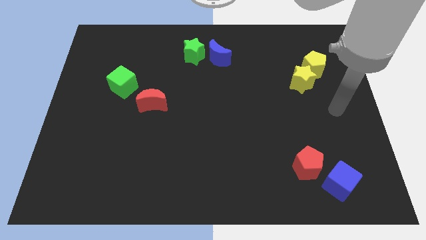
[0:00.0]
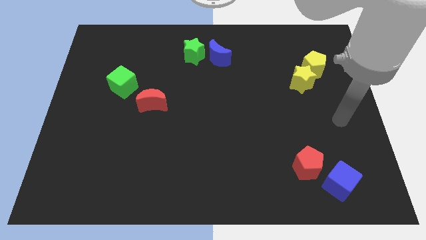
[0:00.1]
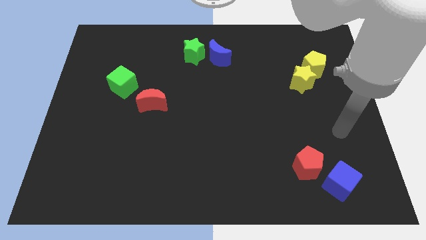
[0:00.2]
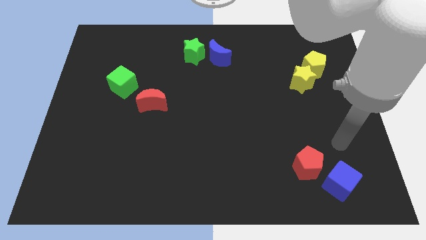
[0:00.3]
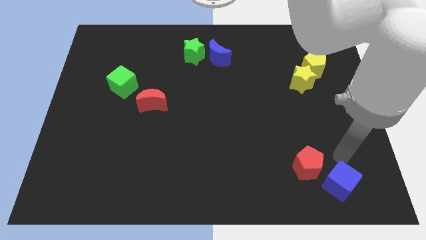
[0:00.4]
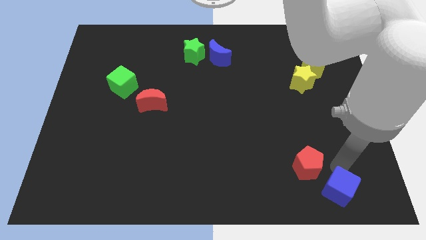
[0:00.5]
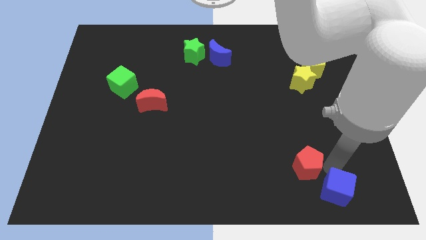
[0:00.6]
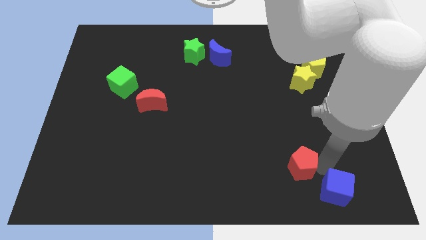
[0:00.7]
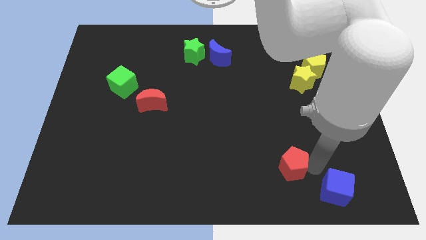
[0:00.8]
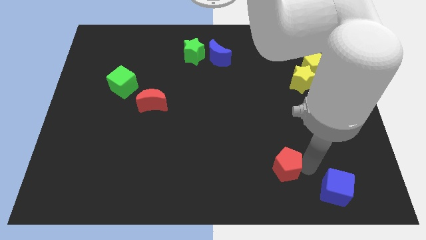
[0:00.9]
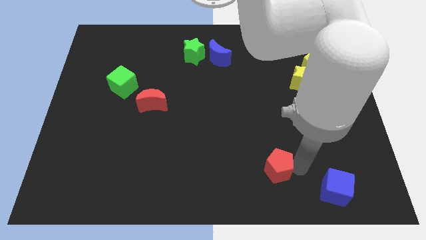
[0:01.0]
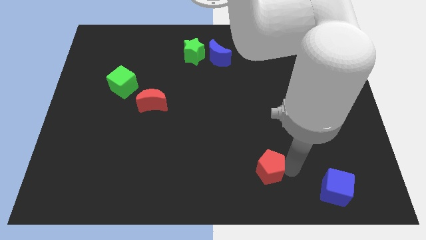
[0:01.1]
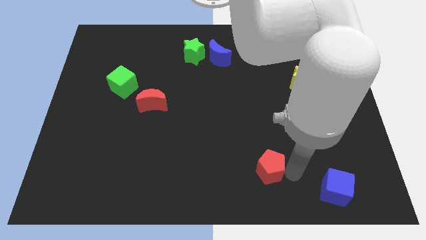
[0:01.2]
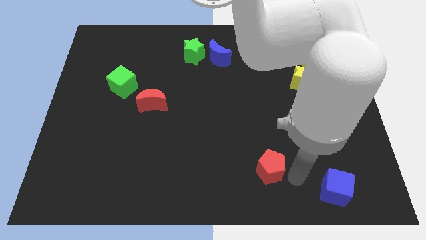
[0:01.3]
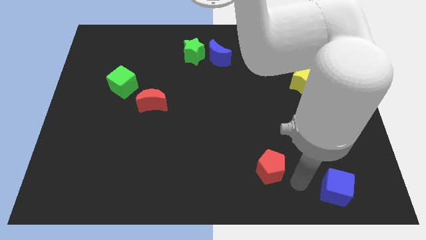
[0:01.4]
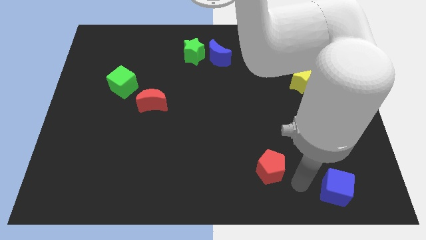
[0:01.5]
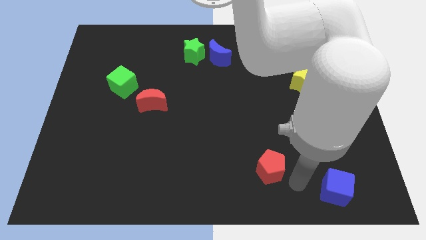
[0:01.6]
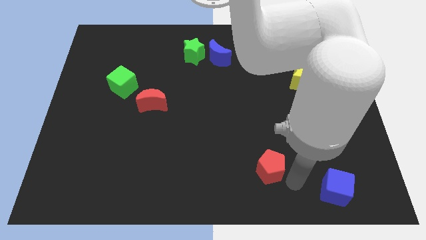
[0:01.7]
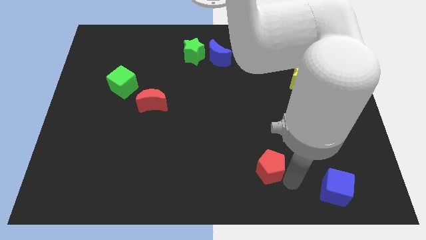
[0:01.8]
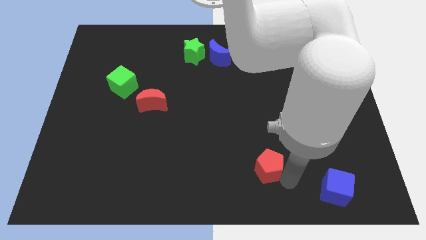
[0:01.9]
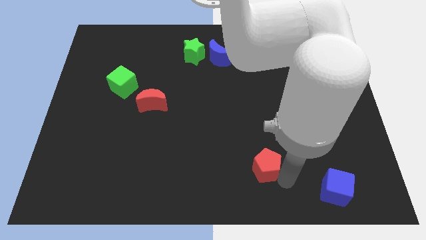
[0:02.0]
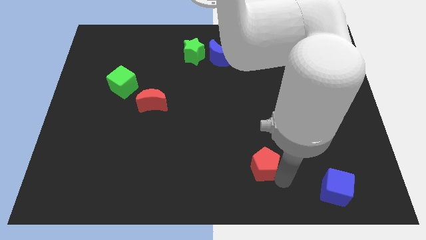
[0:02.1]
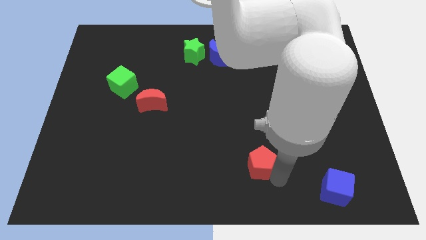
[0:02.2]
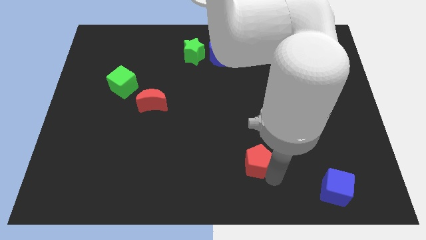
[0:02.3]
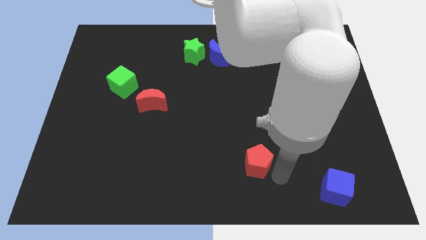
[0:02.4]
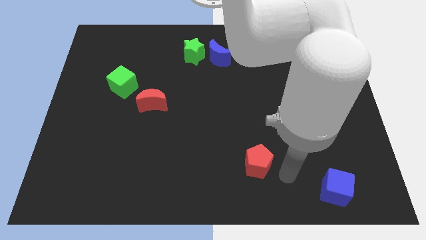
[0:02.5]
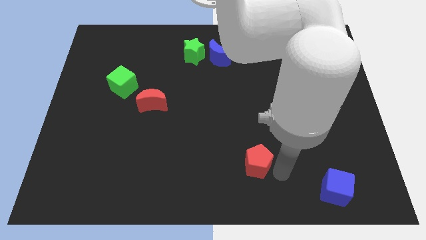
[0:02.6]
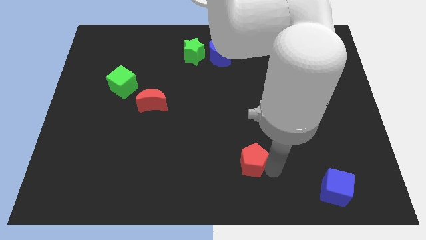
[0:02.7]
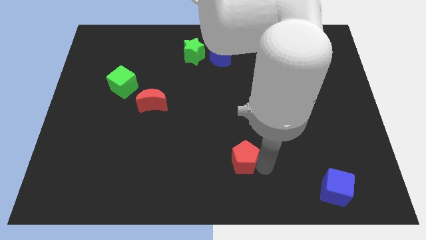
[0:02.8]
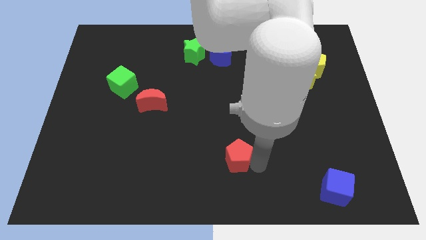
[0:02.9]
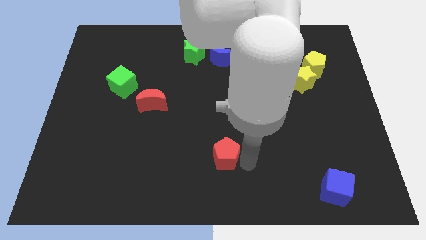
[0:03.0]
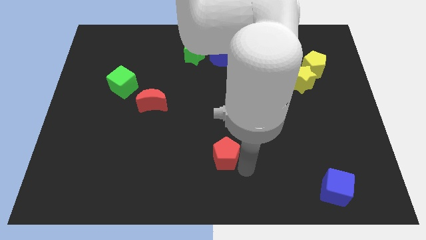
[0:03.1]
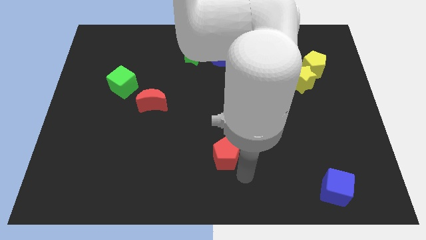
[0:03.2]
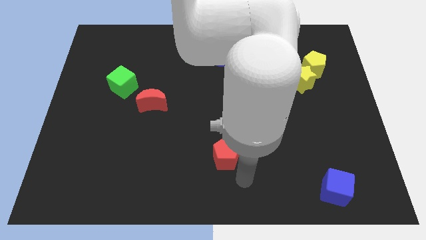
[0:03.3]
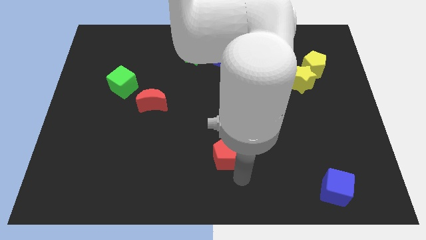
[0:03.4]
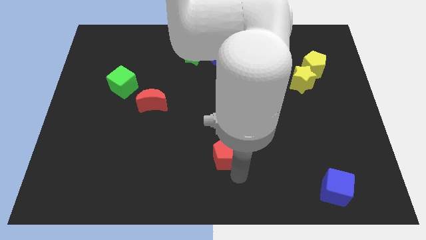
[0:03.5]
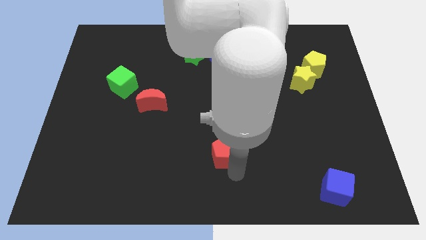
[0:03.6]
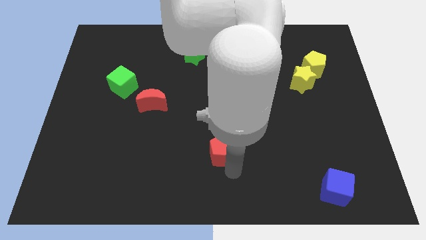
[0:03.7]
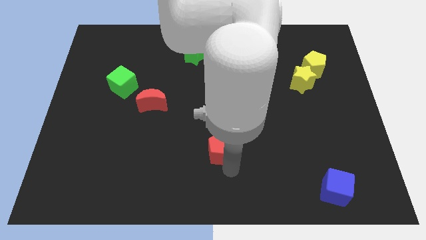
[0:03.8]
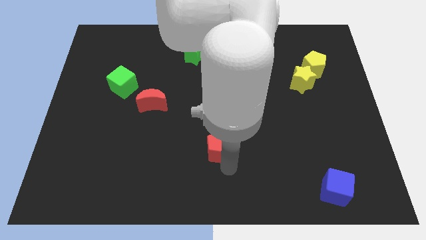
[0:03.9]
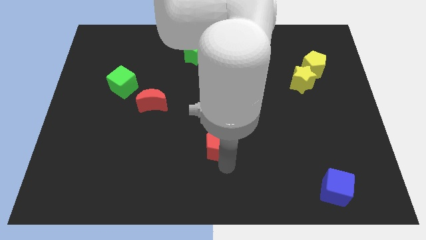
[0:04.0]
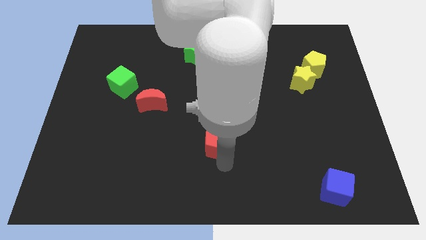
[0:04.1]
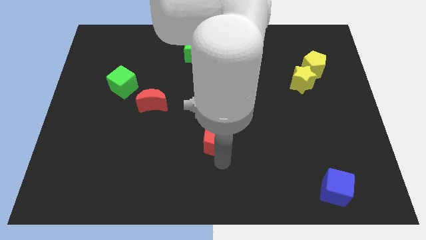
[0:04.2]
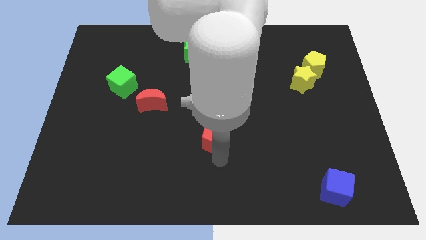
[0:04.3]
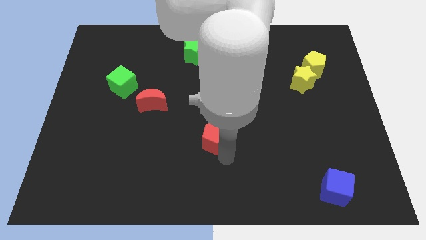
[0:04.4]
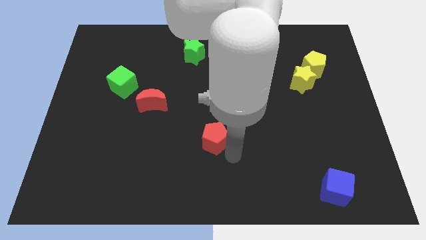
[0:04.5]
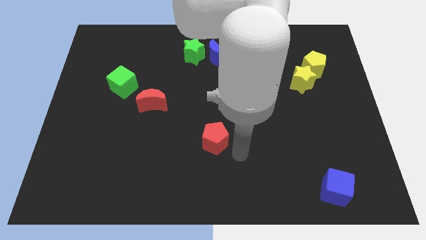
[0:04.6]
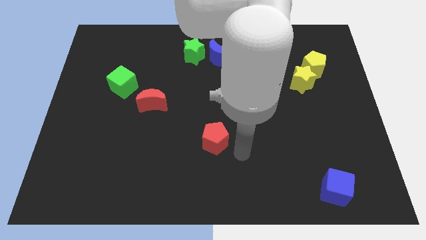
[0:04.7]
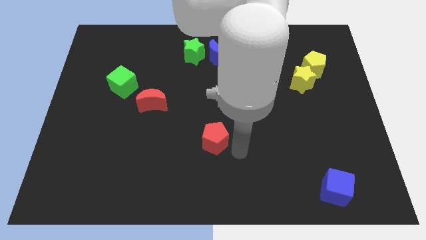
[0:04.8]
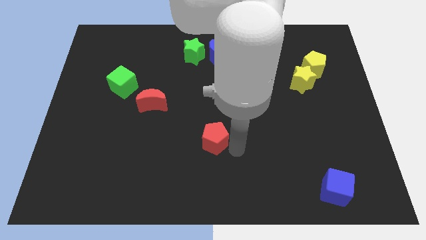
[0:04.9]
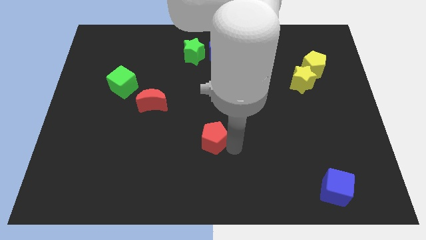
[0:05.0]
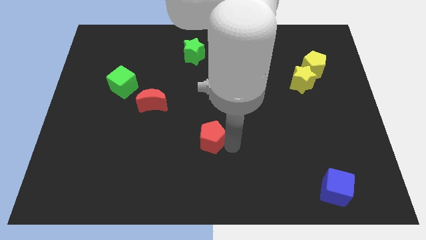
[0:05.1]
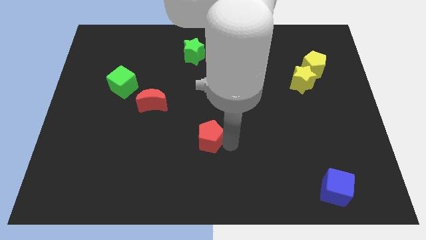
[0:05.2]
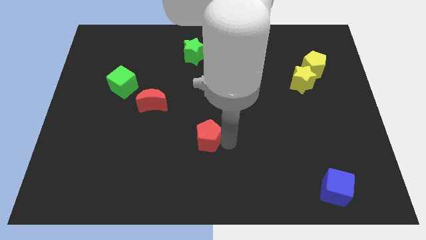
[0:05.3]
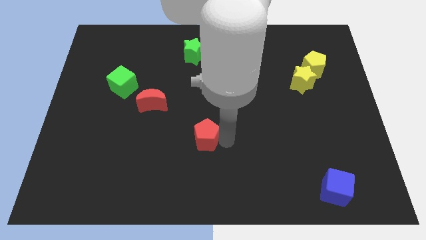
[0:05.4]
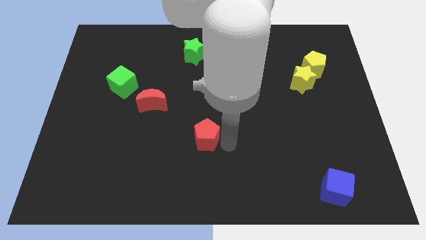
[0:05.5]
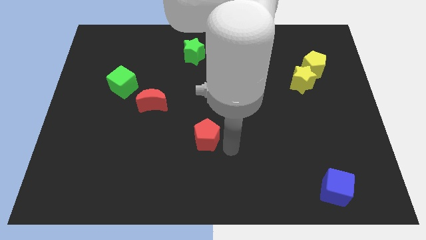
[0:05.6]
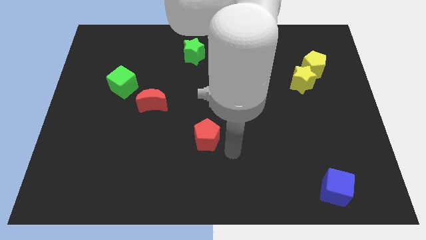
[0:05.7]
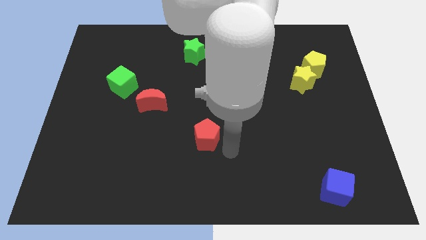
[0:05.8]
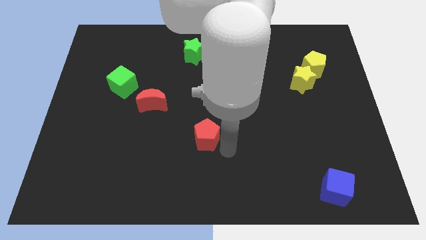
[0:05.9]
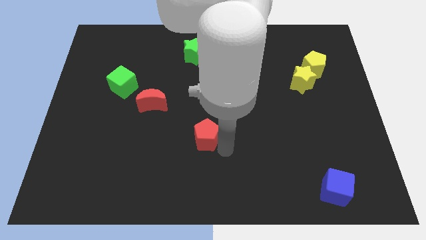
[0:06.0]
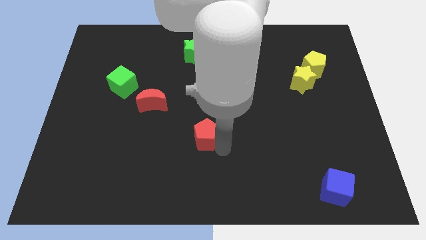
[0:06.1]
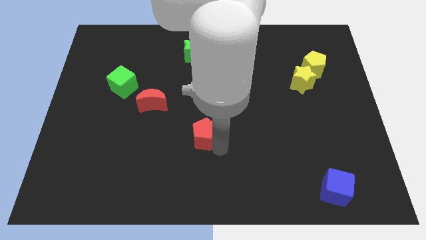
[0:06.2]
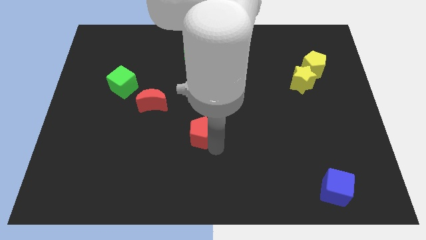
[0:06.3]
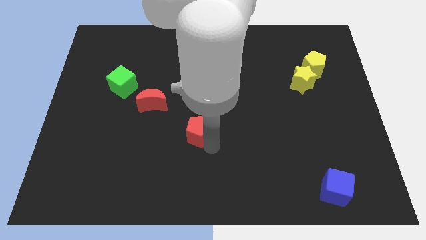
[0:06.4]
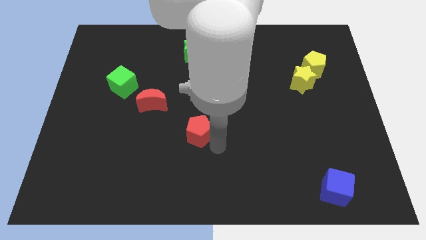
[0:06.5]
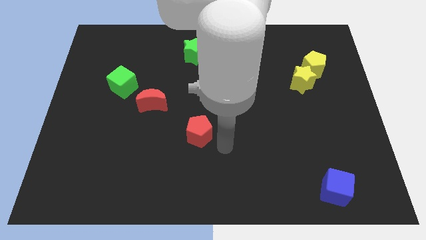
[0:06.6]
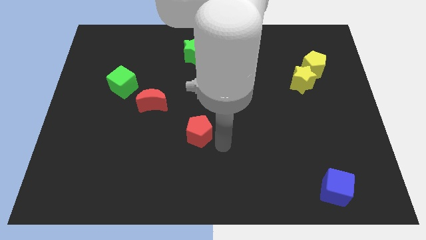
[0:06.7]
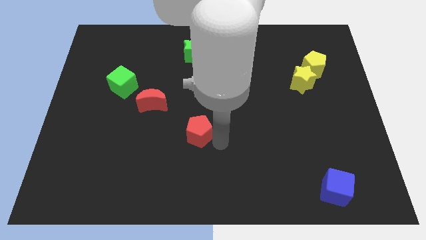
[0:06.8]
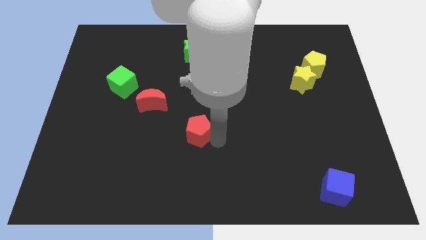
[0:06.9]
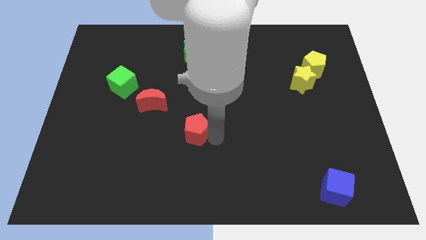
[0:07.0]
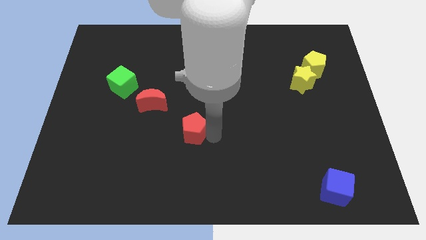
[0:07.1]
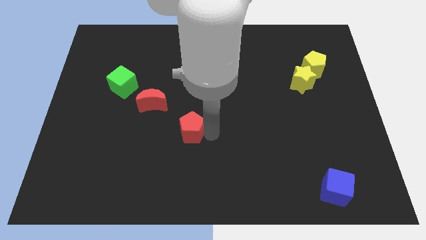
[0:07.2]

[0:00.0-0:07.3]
slide the red pentagon to the bottom right of the red moon

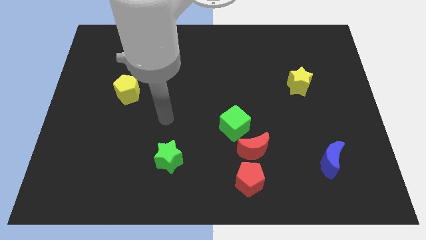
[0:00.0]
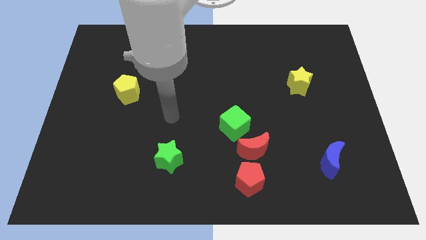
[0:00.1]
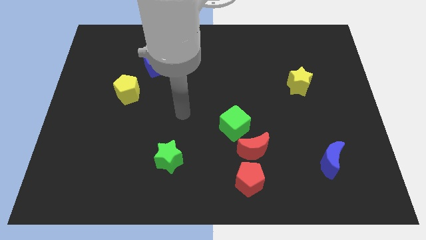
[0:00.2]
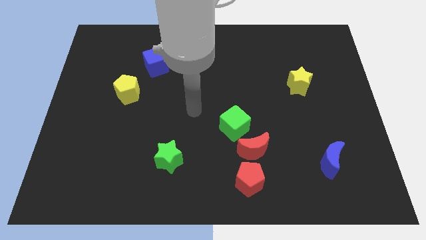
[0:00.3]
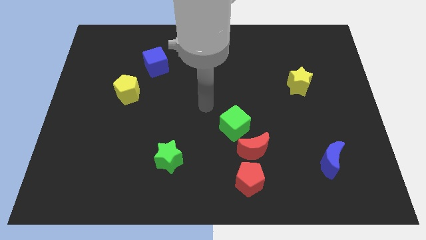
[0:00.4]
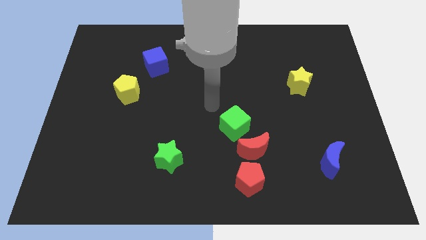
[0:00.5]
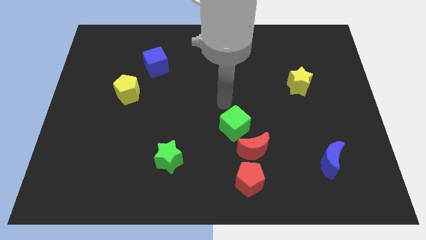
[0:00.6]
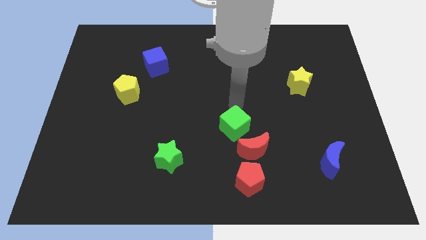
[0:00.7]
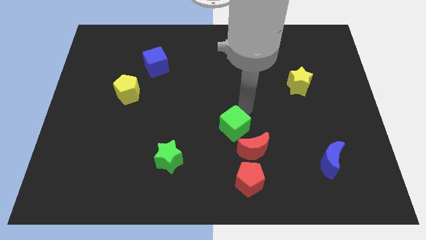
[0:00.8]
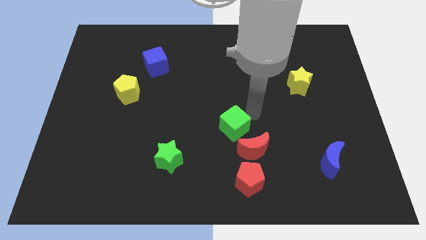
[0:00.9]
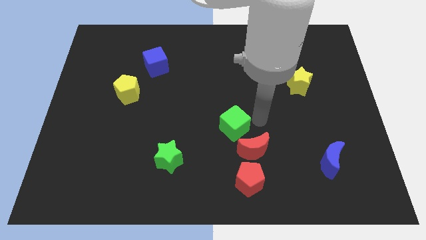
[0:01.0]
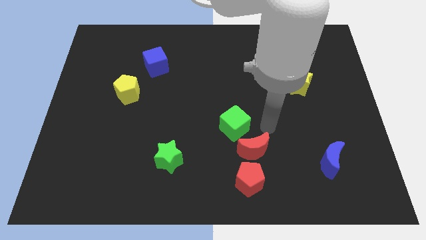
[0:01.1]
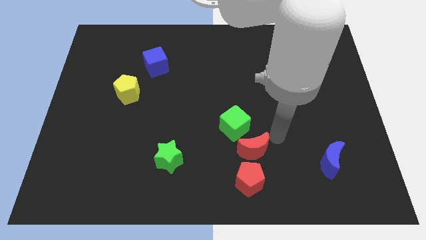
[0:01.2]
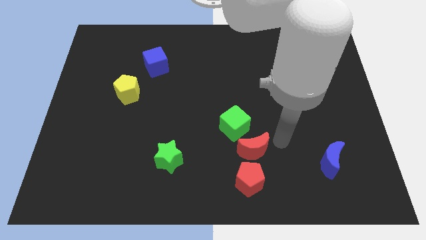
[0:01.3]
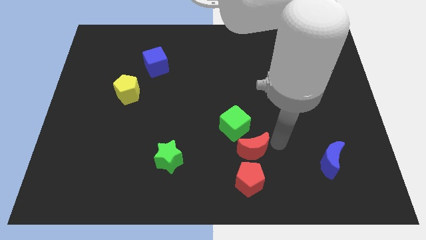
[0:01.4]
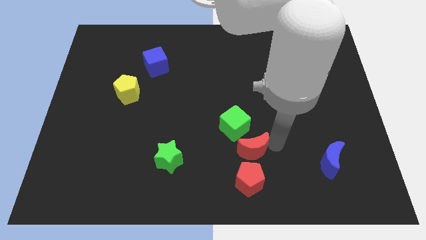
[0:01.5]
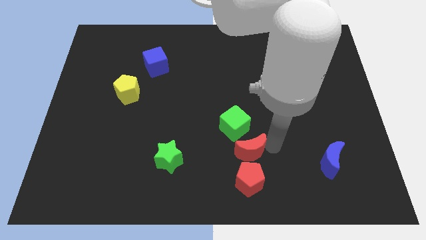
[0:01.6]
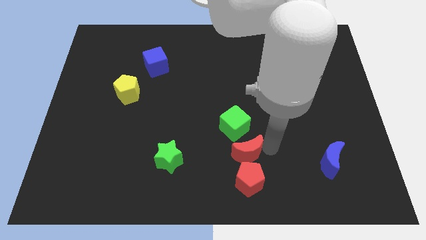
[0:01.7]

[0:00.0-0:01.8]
move the red moon to the top left side of the red pentagon
